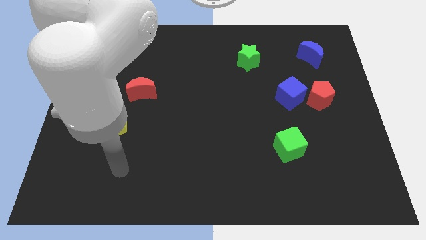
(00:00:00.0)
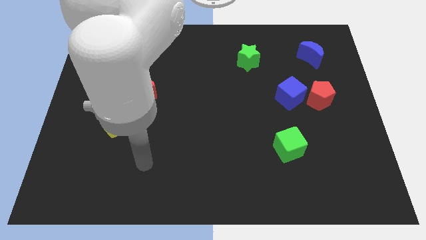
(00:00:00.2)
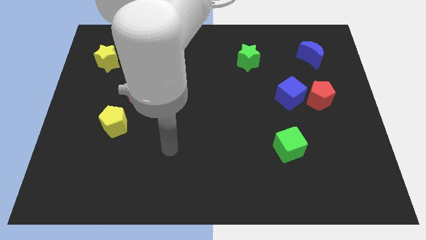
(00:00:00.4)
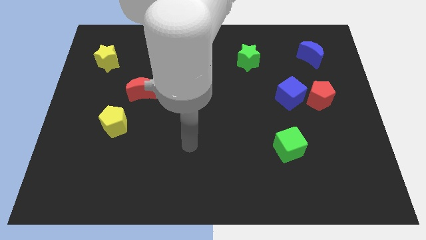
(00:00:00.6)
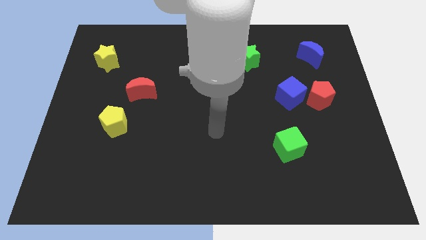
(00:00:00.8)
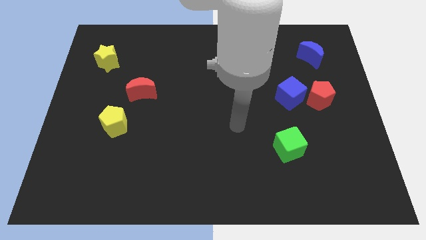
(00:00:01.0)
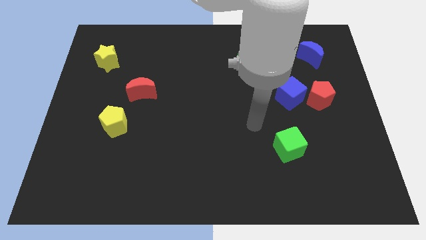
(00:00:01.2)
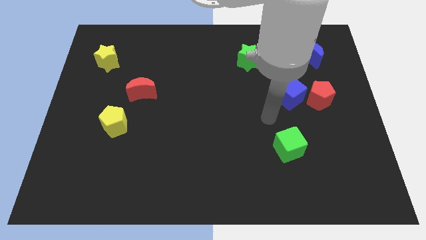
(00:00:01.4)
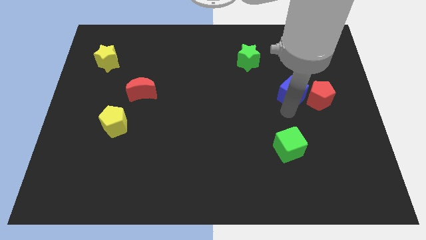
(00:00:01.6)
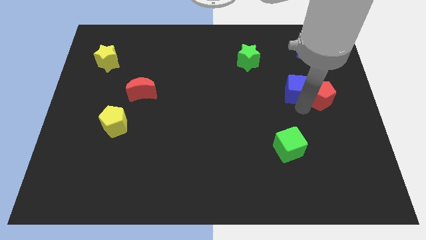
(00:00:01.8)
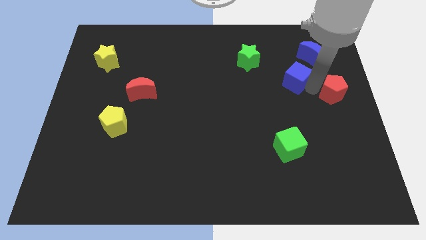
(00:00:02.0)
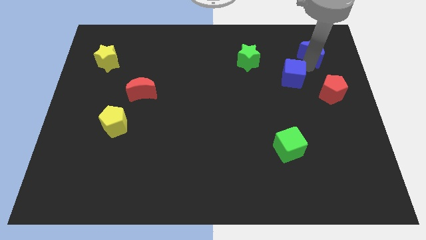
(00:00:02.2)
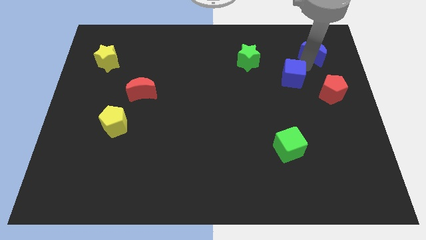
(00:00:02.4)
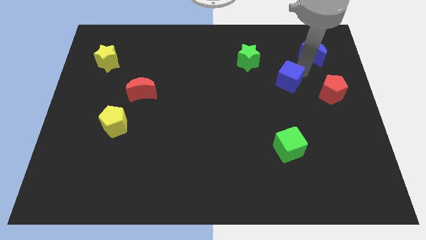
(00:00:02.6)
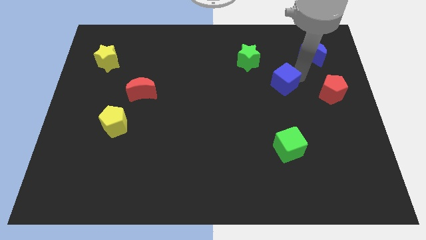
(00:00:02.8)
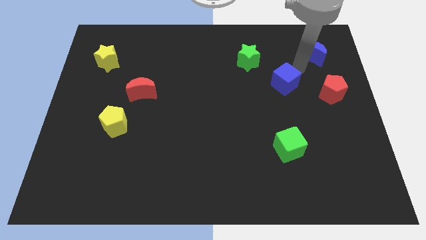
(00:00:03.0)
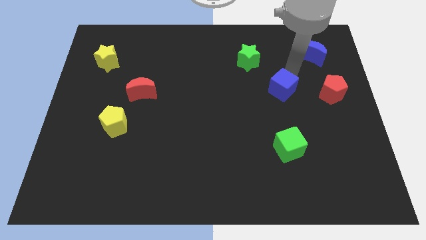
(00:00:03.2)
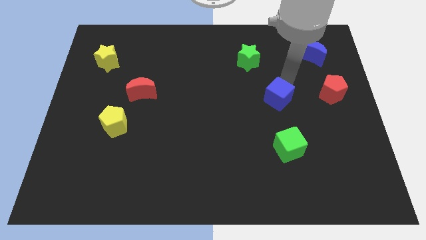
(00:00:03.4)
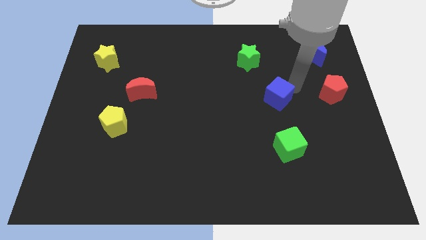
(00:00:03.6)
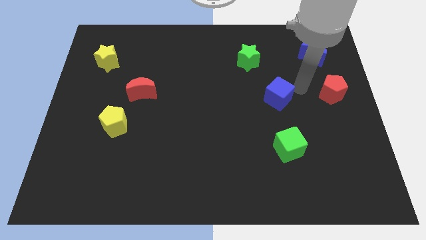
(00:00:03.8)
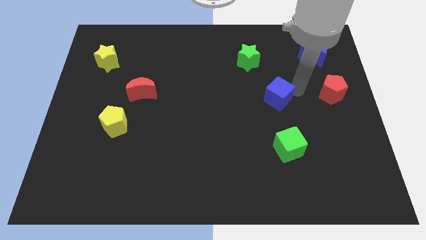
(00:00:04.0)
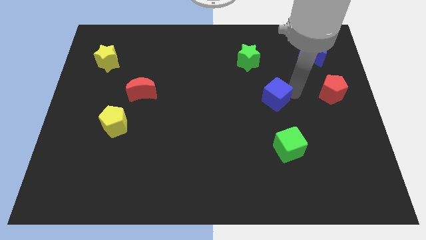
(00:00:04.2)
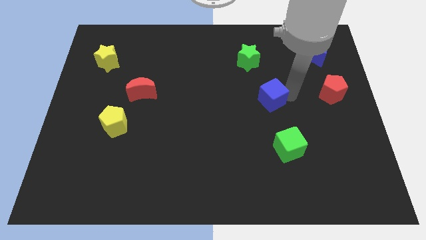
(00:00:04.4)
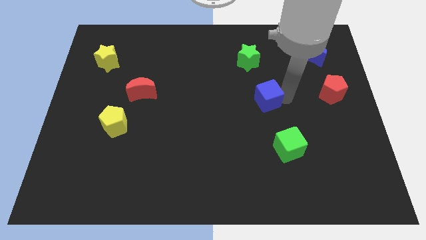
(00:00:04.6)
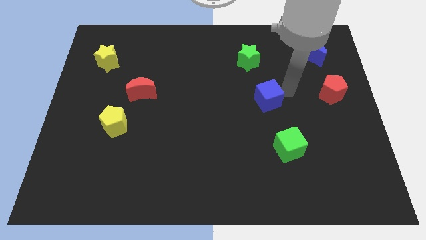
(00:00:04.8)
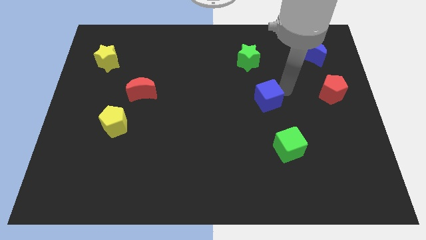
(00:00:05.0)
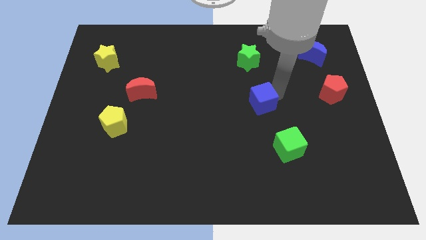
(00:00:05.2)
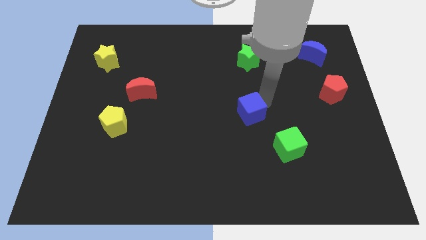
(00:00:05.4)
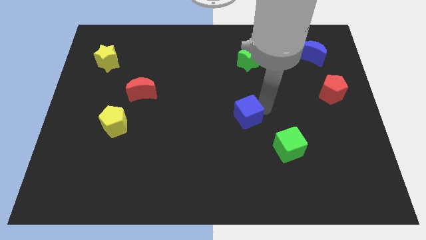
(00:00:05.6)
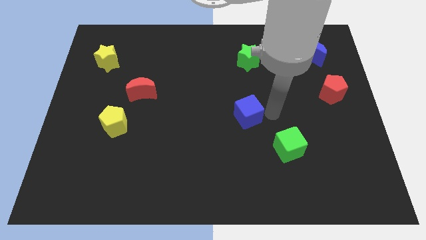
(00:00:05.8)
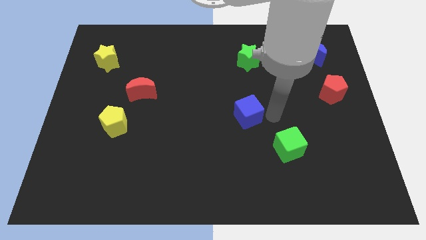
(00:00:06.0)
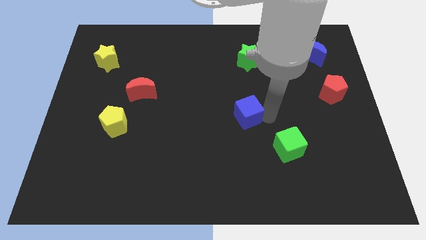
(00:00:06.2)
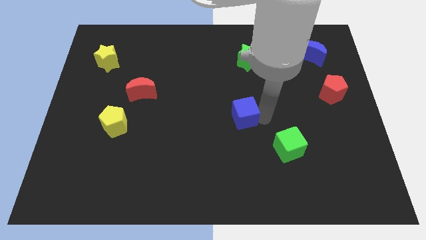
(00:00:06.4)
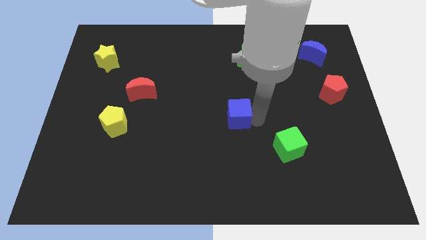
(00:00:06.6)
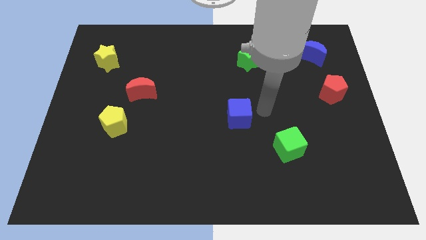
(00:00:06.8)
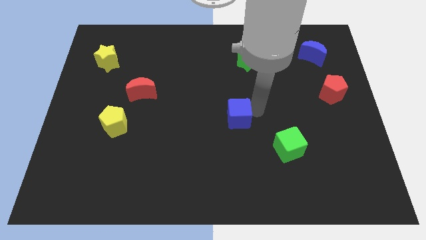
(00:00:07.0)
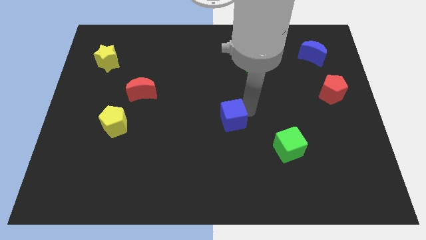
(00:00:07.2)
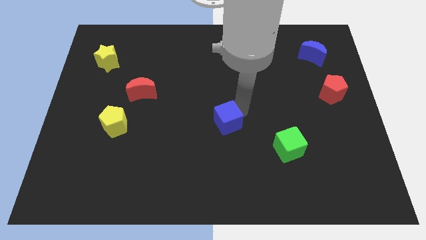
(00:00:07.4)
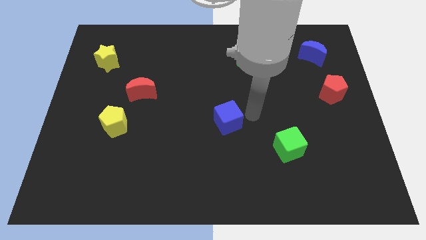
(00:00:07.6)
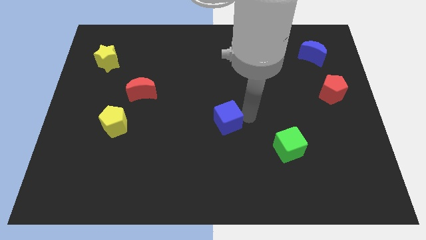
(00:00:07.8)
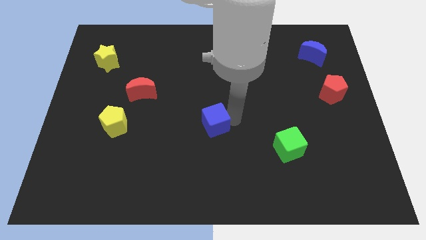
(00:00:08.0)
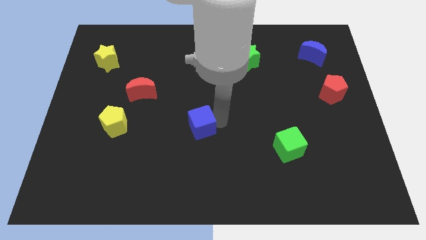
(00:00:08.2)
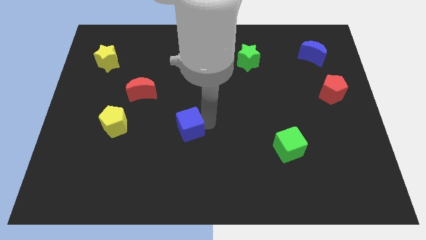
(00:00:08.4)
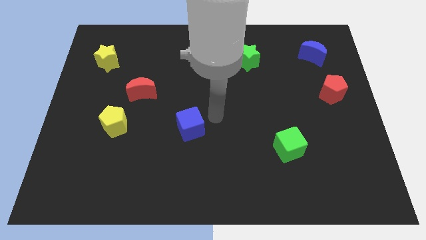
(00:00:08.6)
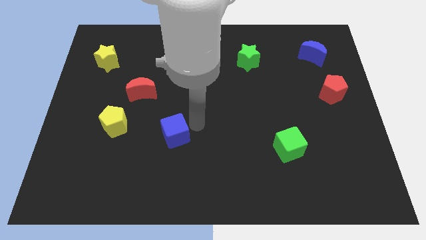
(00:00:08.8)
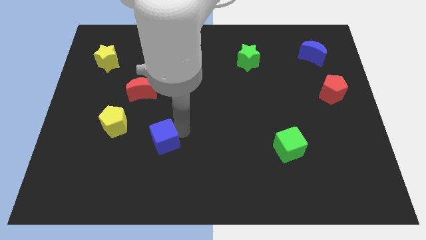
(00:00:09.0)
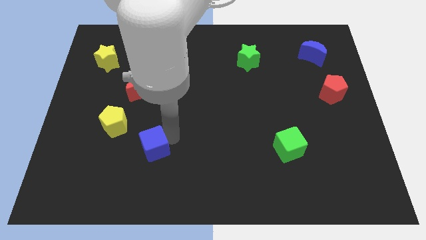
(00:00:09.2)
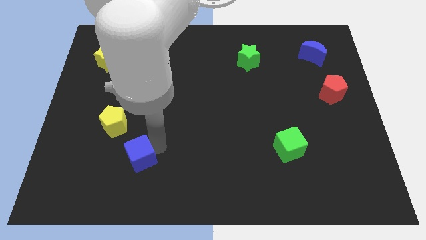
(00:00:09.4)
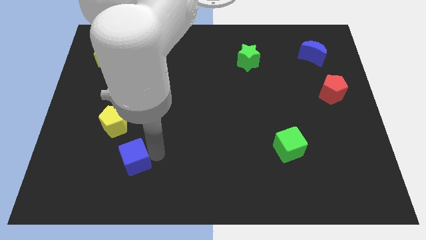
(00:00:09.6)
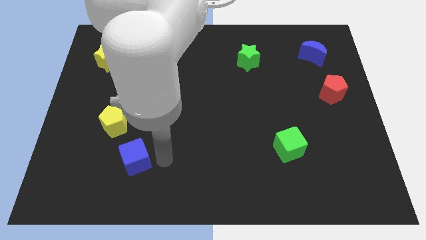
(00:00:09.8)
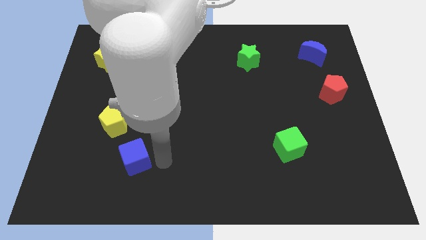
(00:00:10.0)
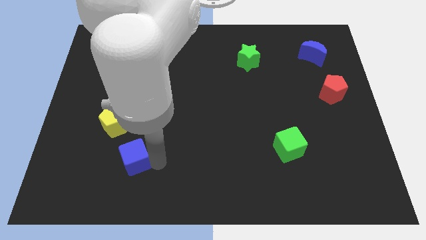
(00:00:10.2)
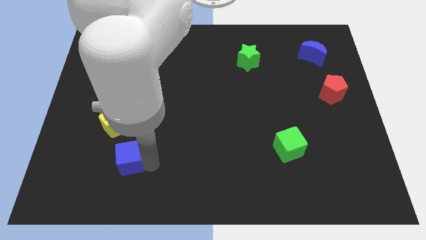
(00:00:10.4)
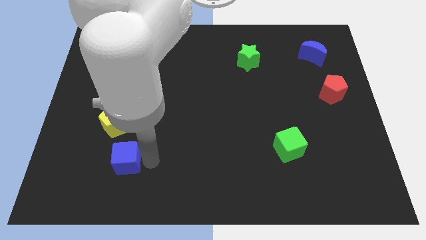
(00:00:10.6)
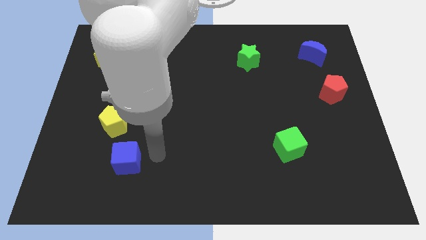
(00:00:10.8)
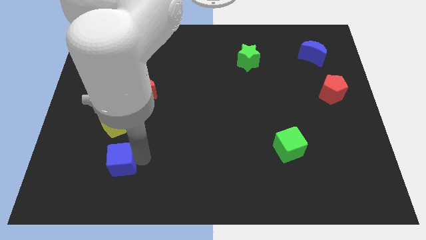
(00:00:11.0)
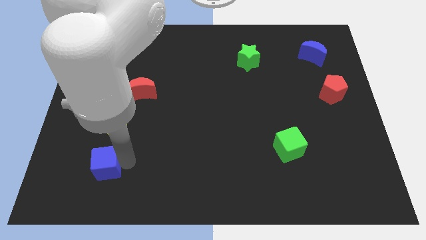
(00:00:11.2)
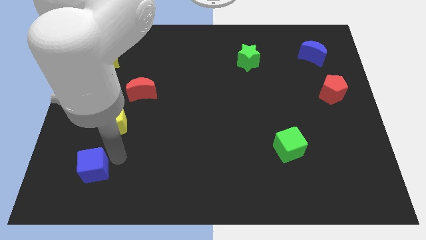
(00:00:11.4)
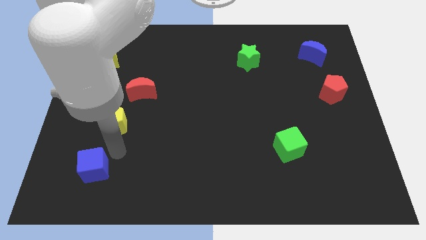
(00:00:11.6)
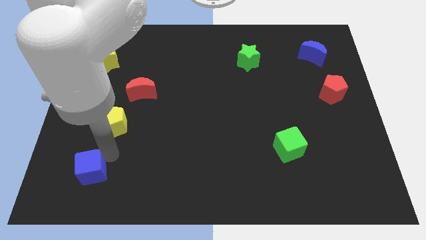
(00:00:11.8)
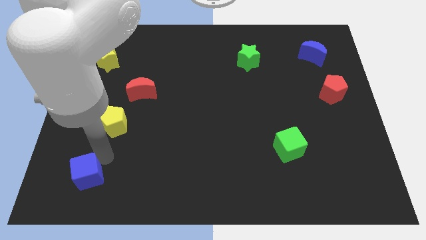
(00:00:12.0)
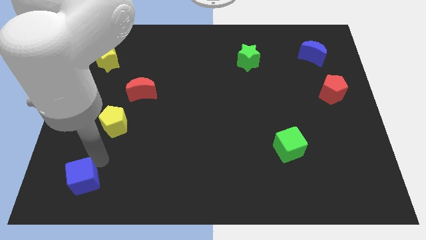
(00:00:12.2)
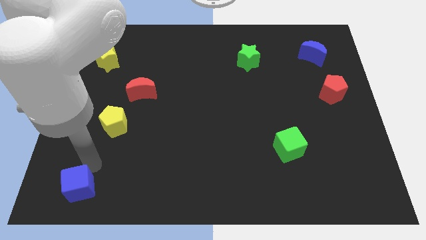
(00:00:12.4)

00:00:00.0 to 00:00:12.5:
slide the blue cube to the bottom left corner

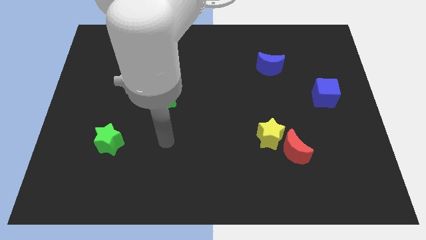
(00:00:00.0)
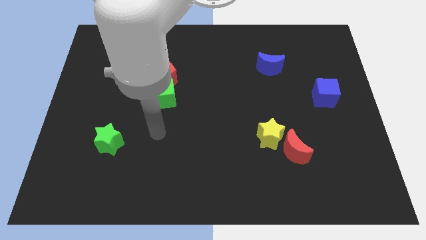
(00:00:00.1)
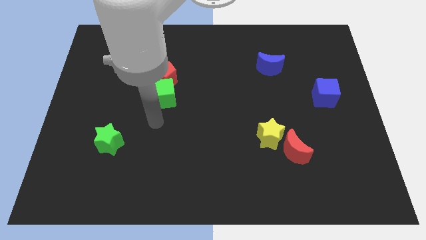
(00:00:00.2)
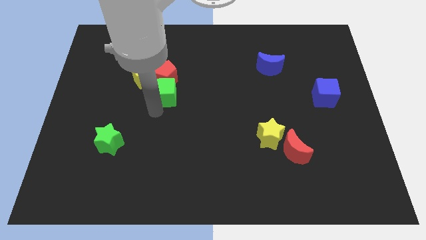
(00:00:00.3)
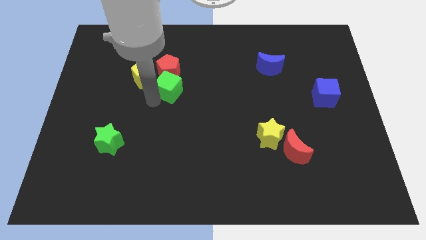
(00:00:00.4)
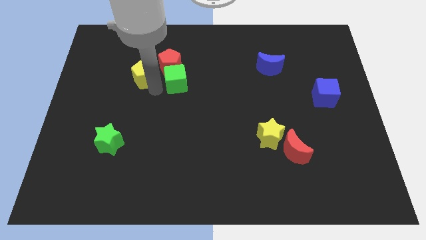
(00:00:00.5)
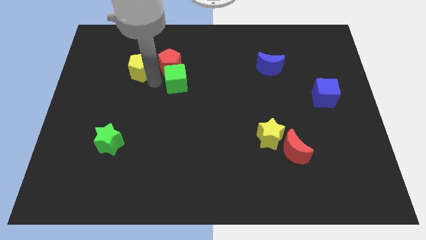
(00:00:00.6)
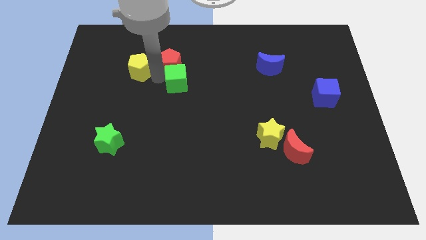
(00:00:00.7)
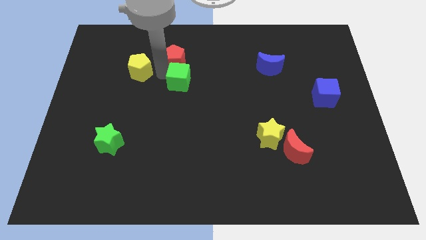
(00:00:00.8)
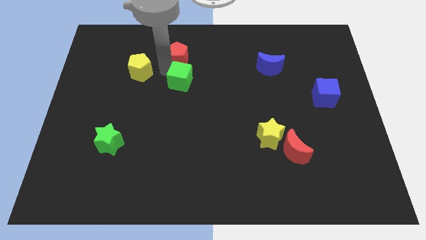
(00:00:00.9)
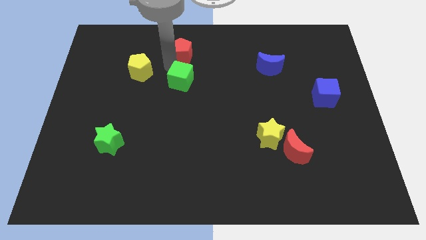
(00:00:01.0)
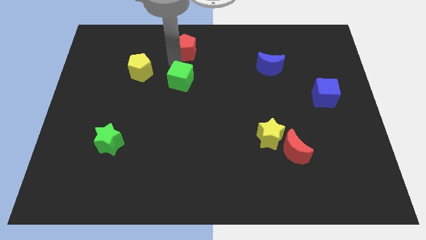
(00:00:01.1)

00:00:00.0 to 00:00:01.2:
slide the red pentagon to the top side
